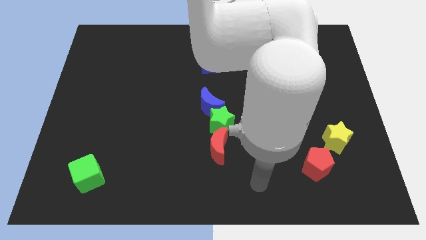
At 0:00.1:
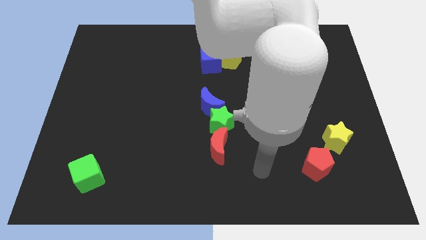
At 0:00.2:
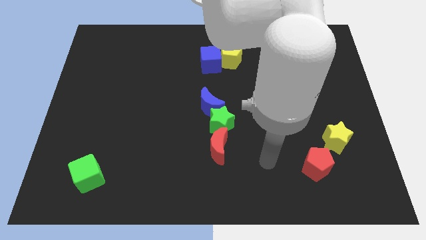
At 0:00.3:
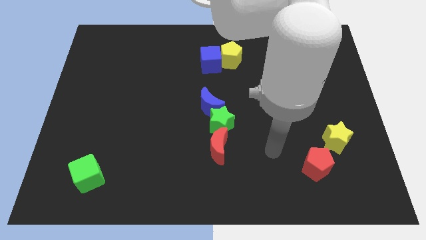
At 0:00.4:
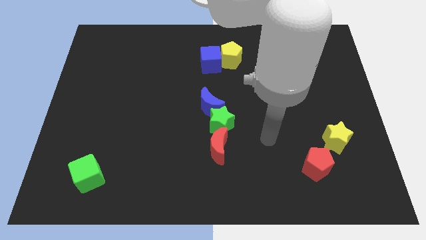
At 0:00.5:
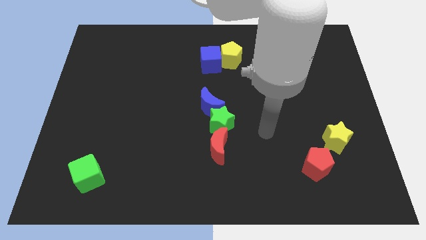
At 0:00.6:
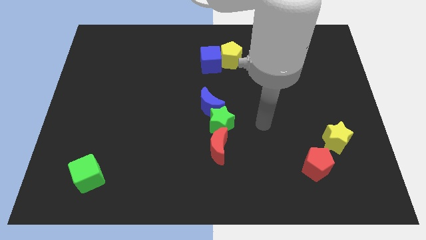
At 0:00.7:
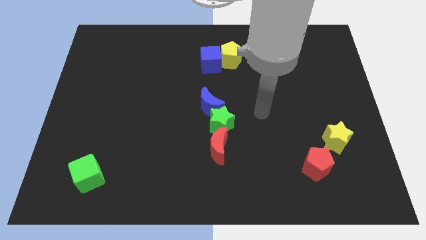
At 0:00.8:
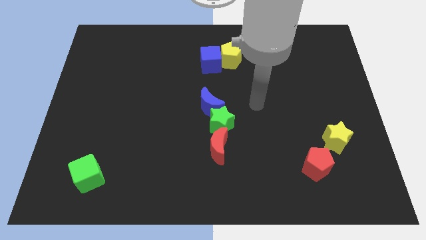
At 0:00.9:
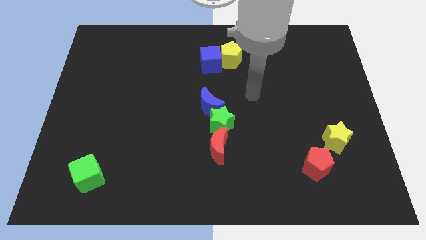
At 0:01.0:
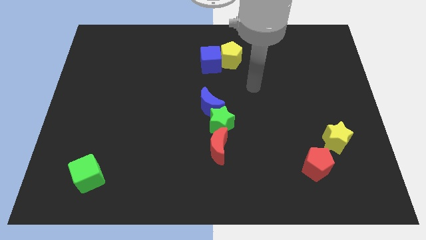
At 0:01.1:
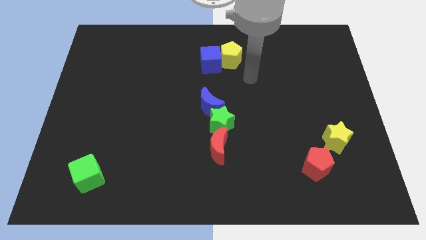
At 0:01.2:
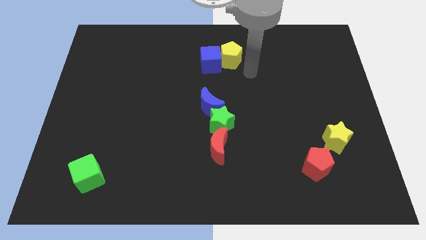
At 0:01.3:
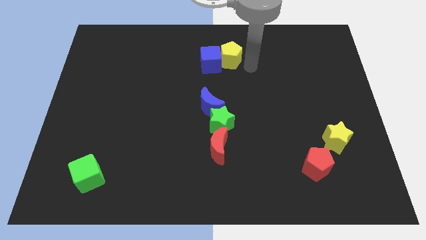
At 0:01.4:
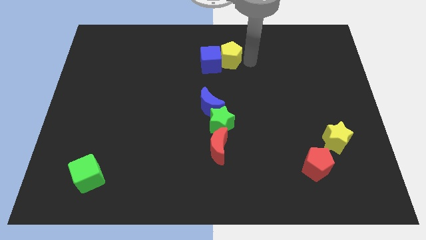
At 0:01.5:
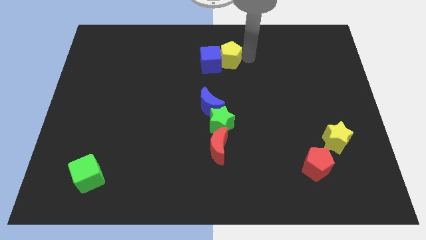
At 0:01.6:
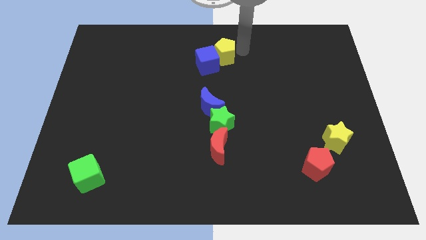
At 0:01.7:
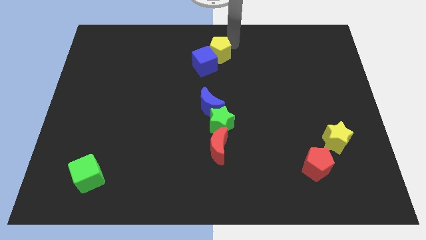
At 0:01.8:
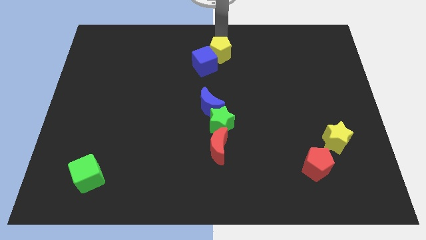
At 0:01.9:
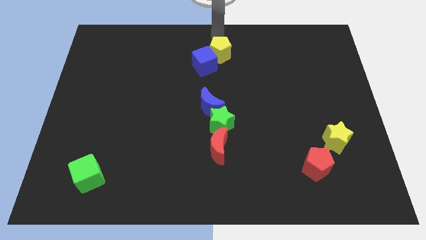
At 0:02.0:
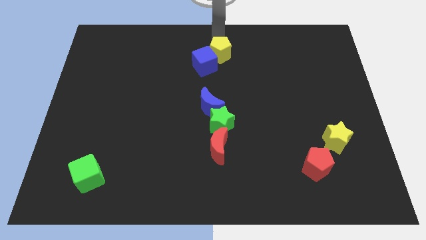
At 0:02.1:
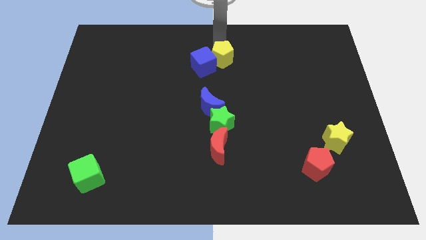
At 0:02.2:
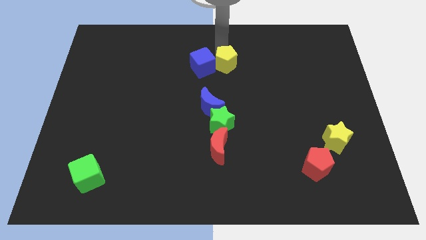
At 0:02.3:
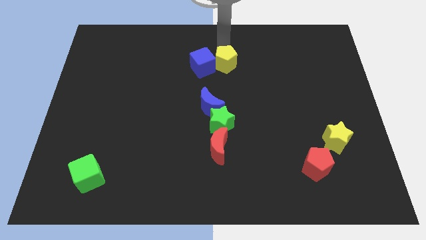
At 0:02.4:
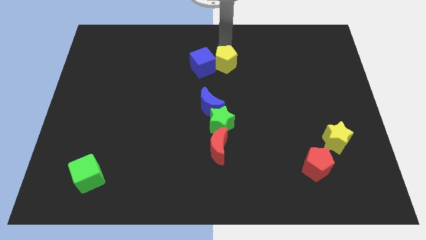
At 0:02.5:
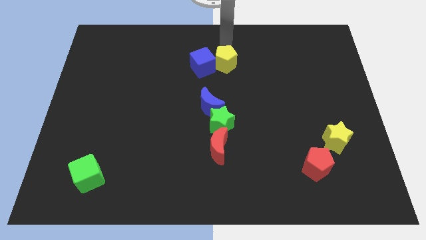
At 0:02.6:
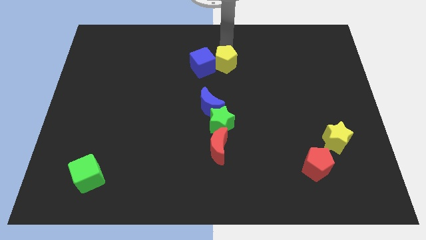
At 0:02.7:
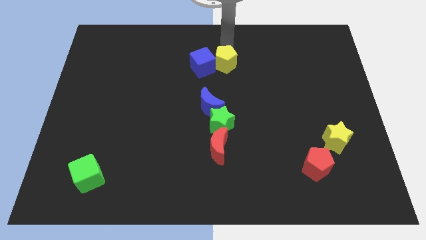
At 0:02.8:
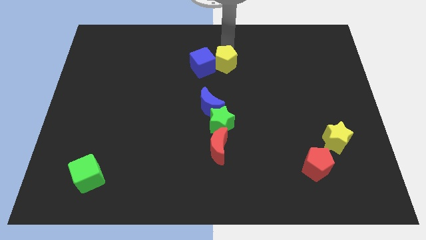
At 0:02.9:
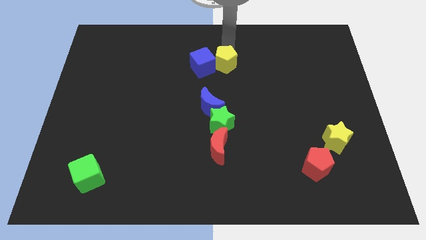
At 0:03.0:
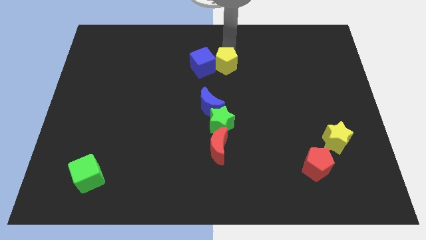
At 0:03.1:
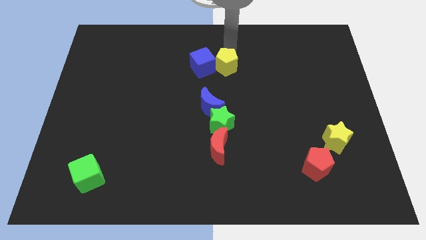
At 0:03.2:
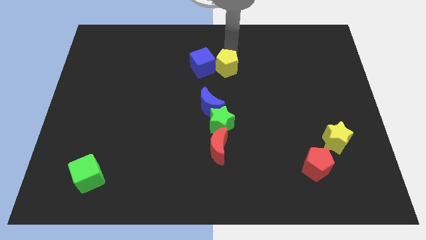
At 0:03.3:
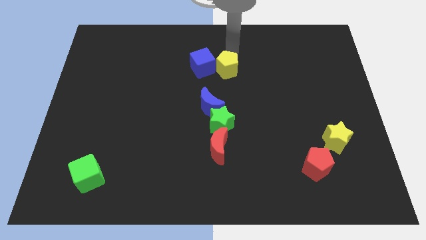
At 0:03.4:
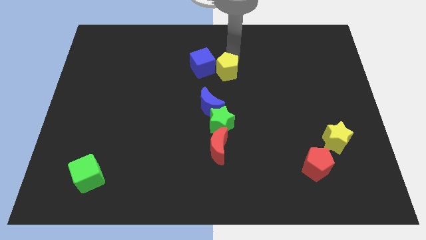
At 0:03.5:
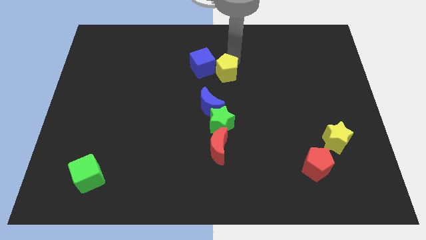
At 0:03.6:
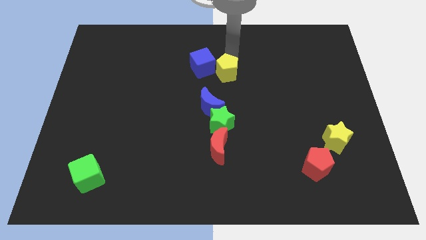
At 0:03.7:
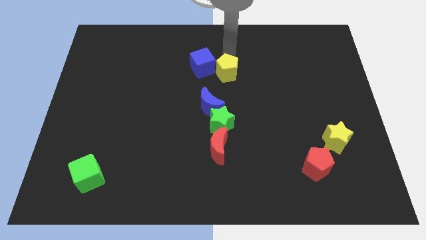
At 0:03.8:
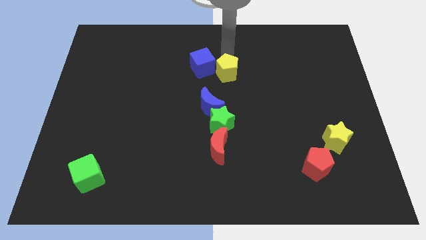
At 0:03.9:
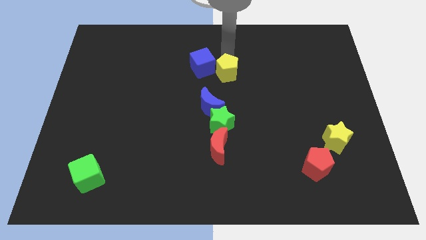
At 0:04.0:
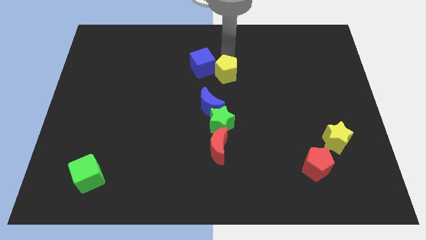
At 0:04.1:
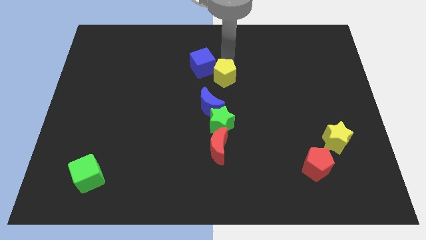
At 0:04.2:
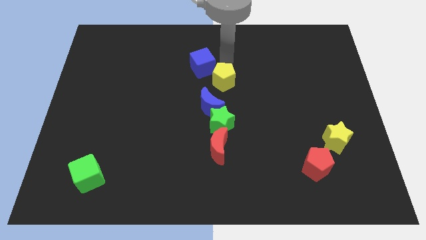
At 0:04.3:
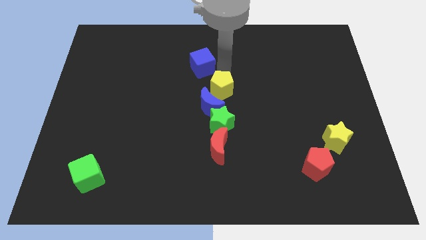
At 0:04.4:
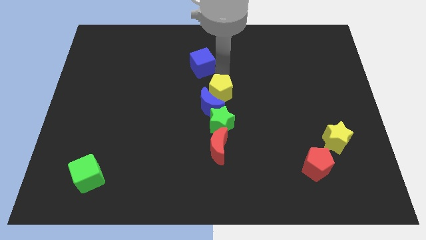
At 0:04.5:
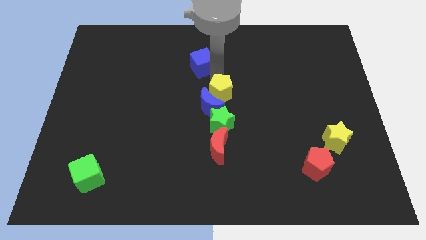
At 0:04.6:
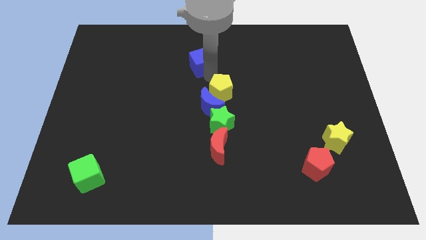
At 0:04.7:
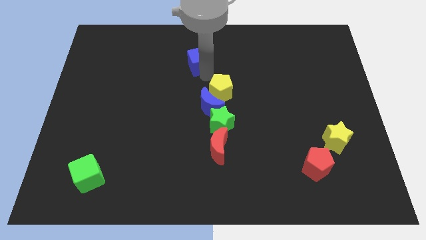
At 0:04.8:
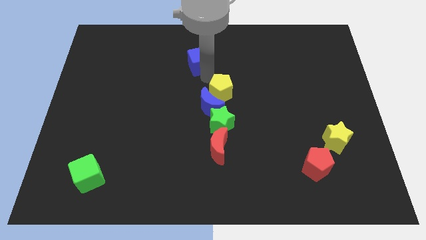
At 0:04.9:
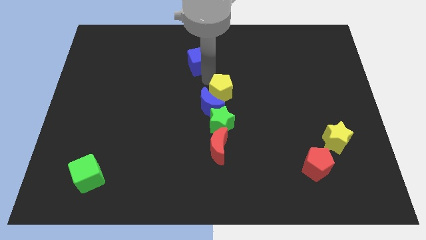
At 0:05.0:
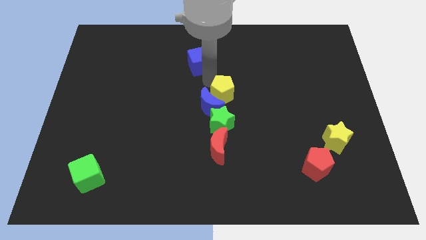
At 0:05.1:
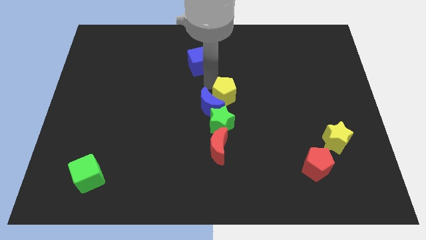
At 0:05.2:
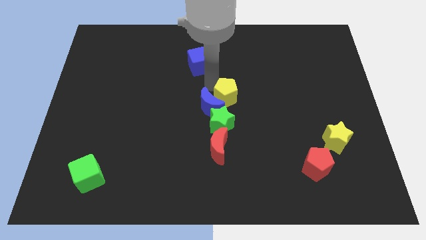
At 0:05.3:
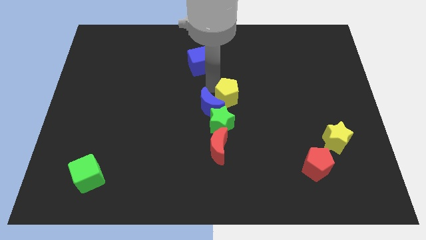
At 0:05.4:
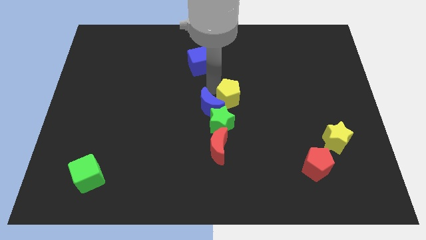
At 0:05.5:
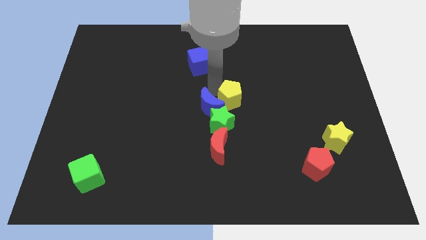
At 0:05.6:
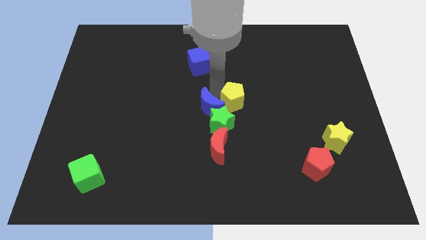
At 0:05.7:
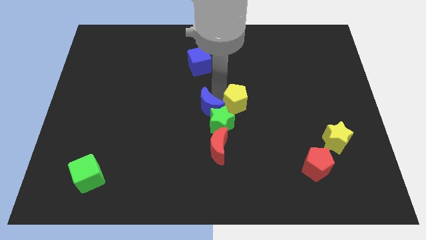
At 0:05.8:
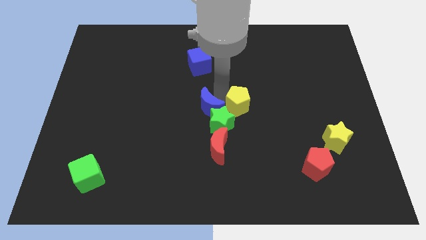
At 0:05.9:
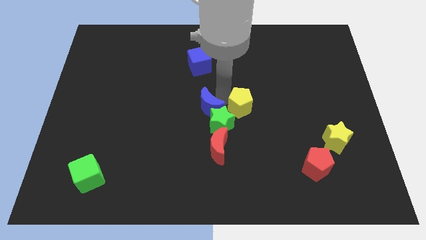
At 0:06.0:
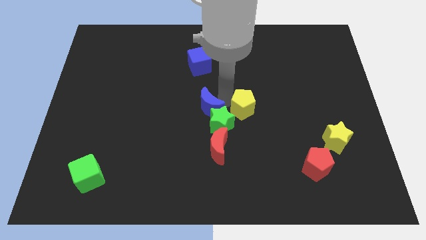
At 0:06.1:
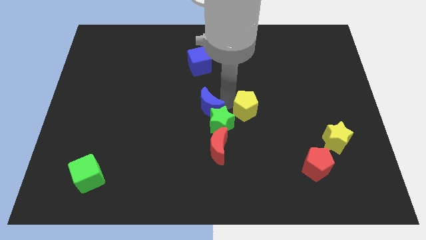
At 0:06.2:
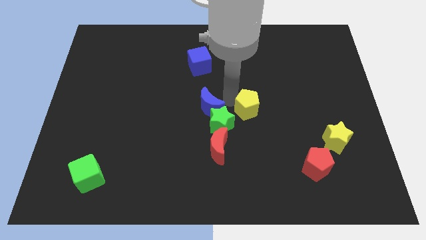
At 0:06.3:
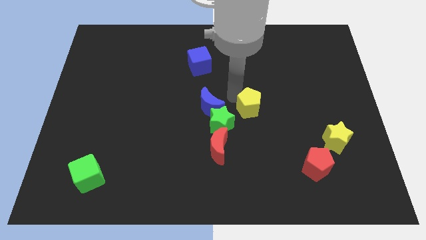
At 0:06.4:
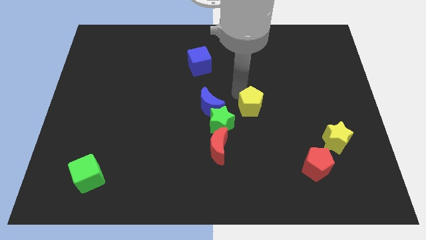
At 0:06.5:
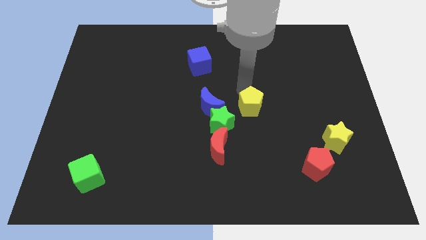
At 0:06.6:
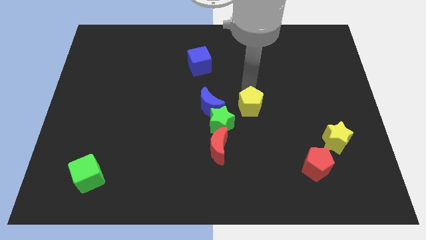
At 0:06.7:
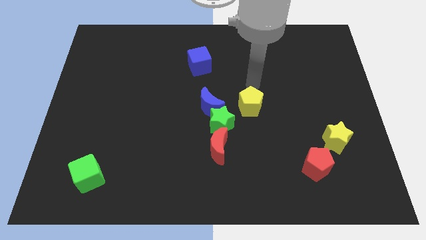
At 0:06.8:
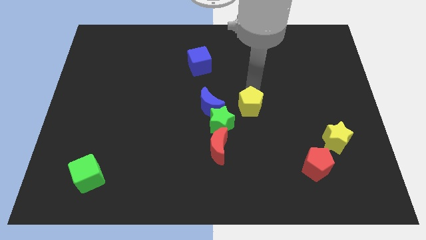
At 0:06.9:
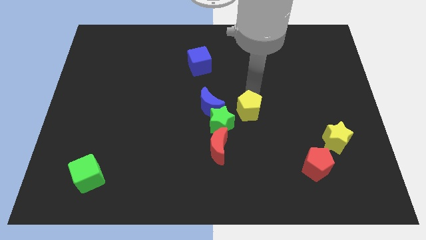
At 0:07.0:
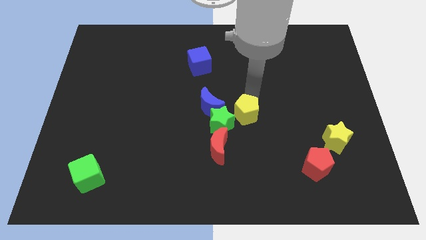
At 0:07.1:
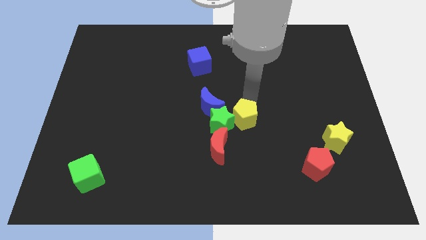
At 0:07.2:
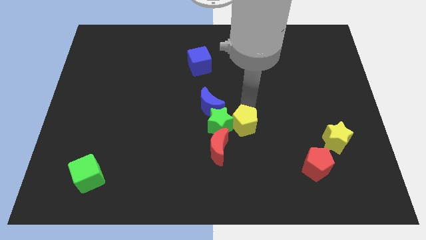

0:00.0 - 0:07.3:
push the yellow pentagon down
